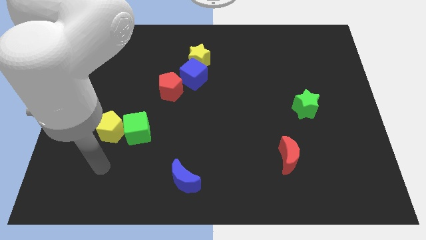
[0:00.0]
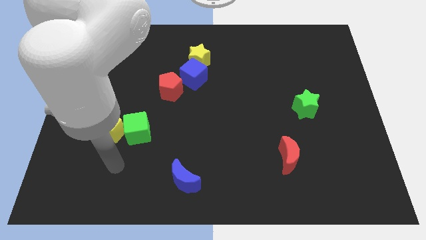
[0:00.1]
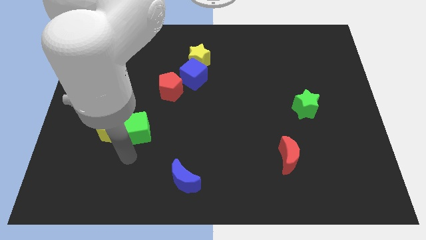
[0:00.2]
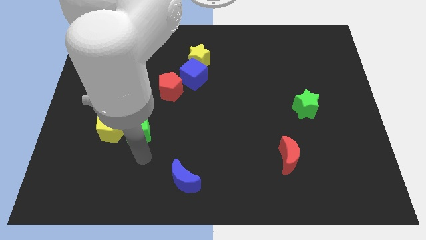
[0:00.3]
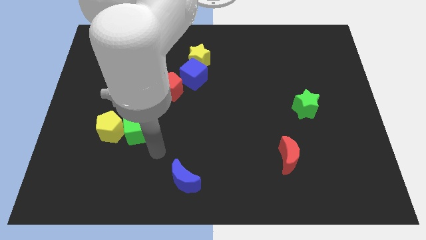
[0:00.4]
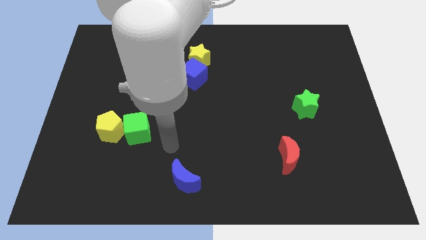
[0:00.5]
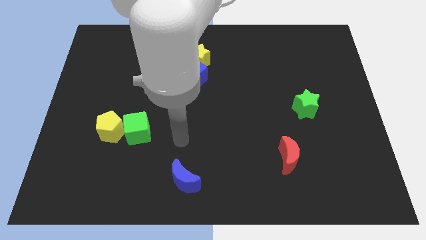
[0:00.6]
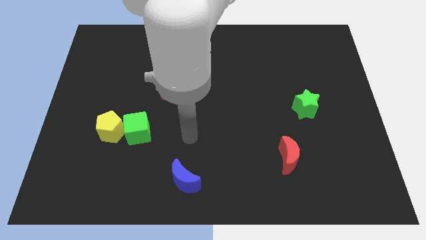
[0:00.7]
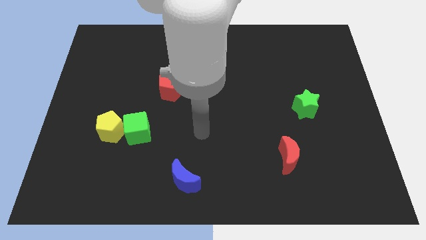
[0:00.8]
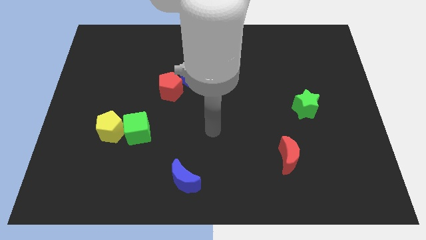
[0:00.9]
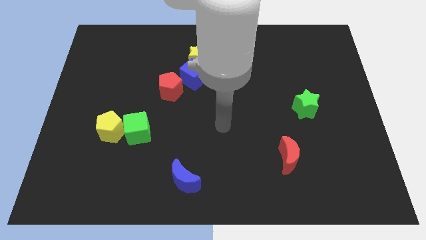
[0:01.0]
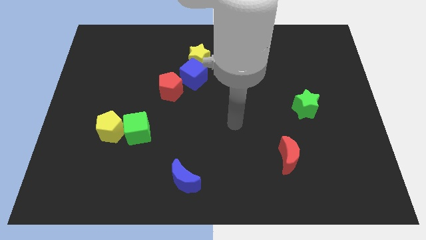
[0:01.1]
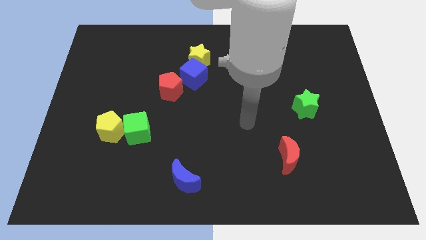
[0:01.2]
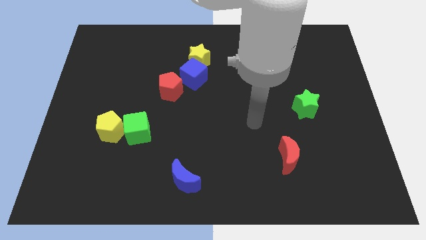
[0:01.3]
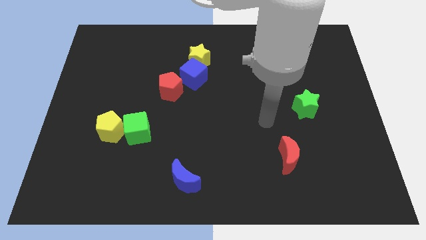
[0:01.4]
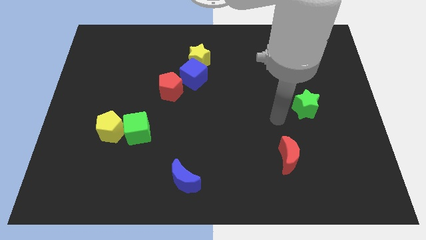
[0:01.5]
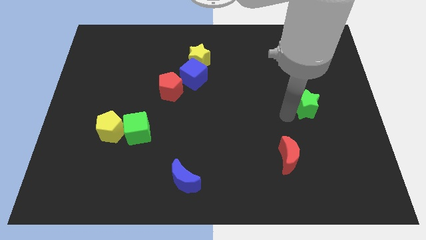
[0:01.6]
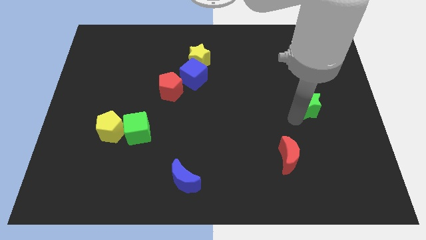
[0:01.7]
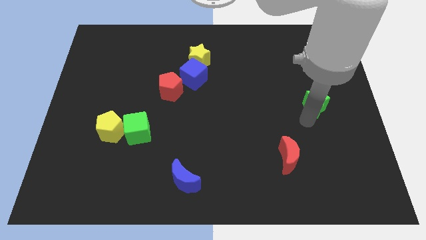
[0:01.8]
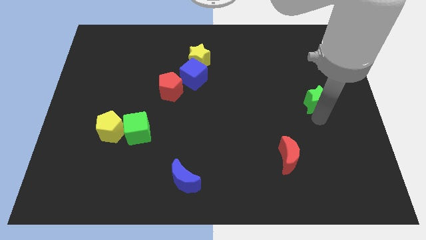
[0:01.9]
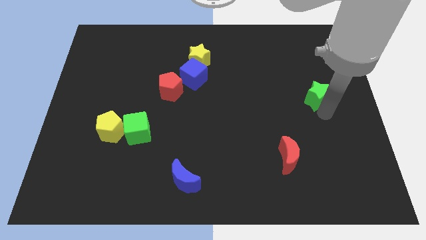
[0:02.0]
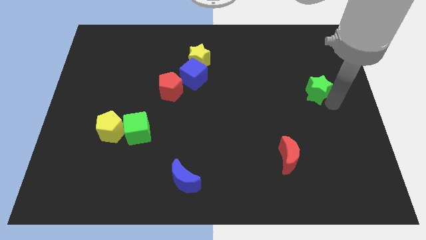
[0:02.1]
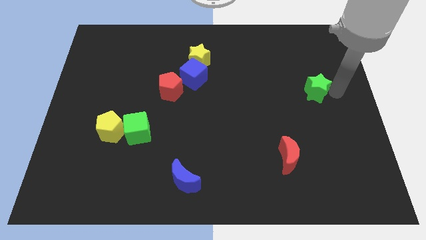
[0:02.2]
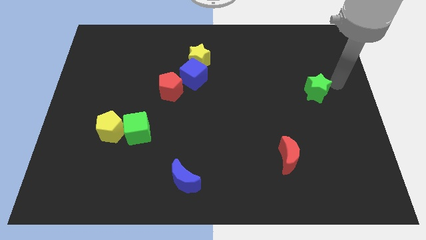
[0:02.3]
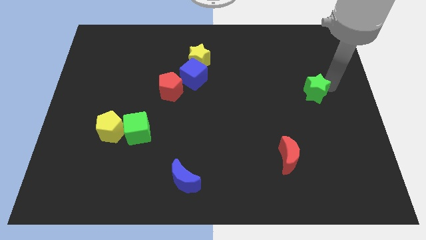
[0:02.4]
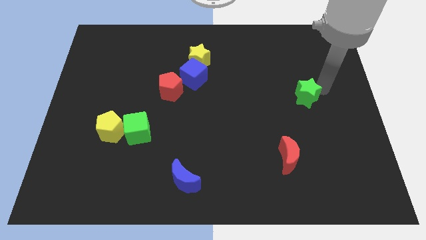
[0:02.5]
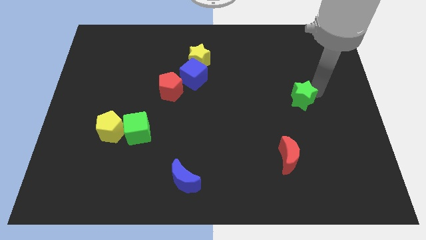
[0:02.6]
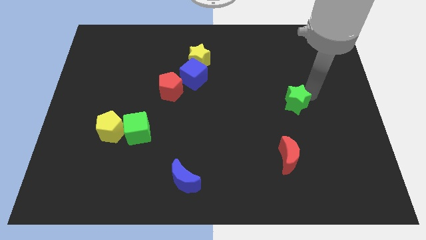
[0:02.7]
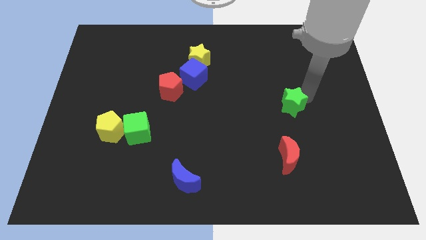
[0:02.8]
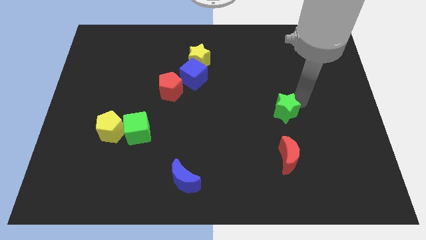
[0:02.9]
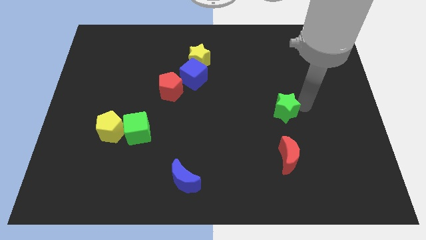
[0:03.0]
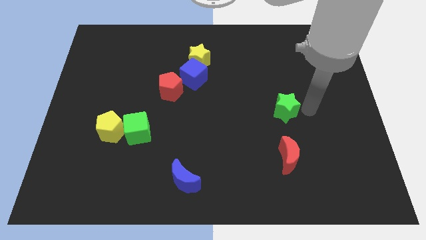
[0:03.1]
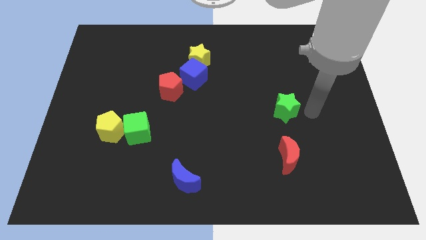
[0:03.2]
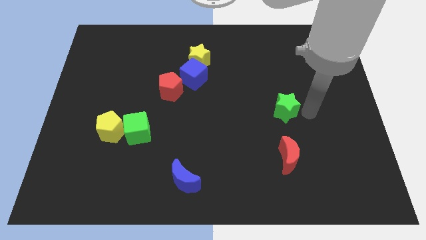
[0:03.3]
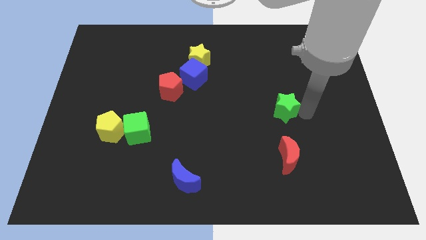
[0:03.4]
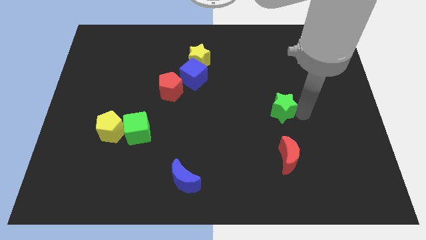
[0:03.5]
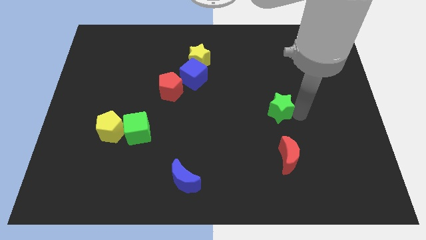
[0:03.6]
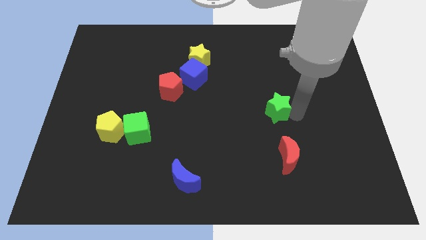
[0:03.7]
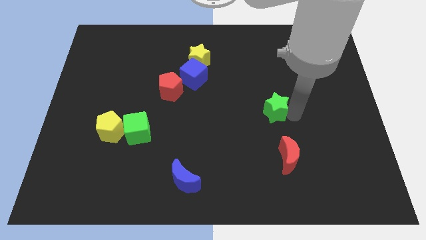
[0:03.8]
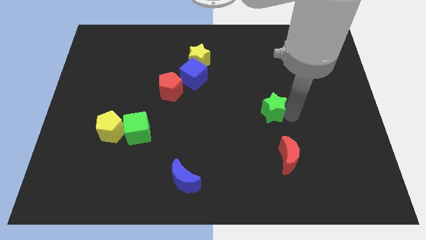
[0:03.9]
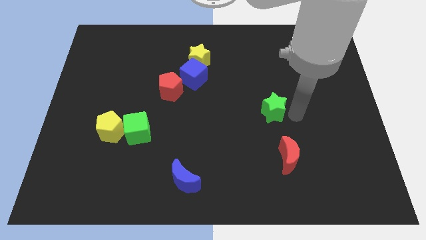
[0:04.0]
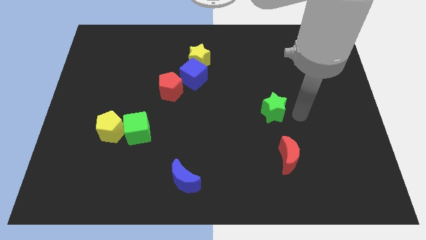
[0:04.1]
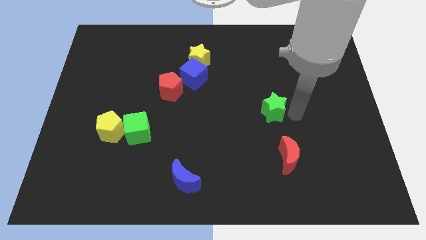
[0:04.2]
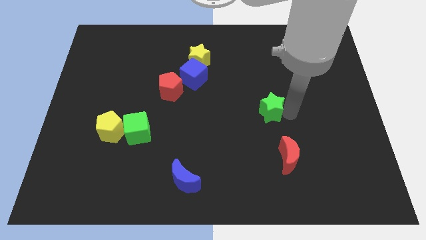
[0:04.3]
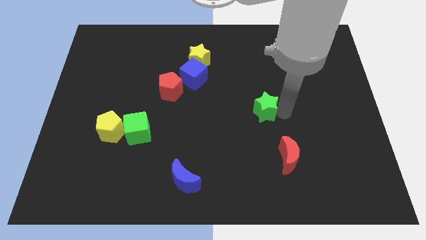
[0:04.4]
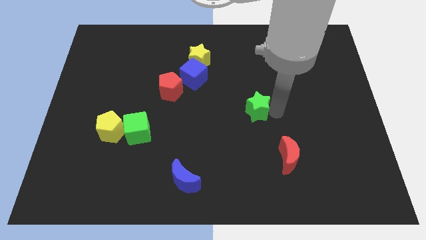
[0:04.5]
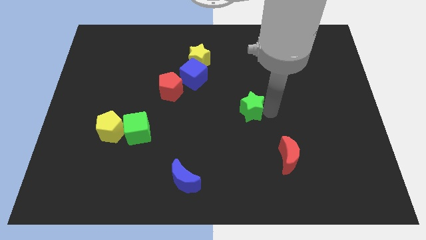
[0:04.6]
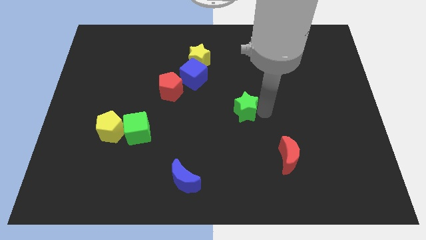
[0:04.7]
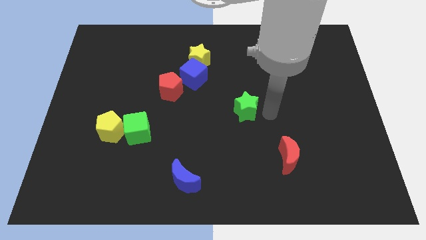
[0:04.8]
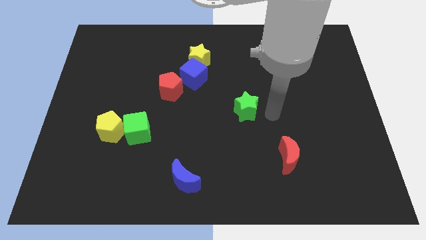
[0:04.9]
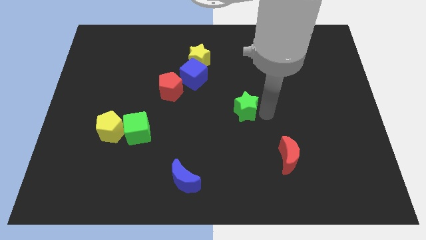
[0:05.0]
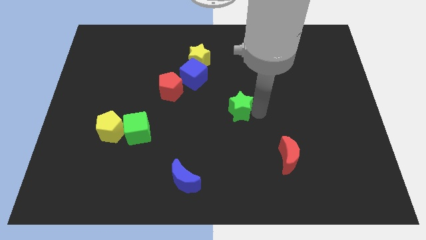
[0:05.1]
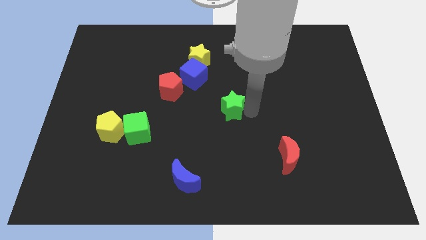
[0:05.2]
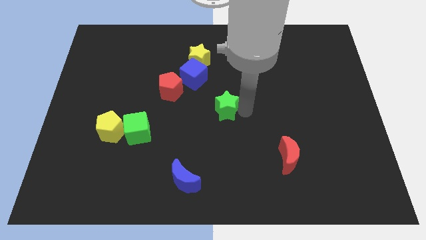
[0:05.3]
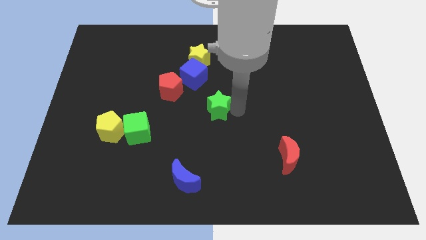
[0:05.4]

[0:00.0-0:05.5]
move the green star to the left

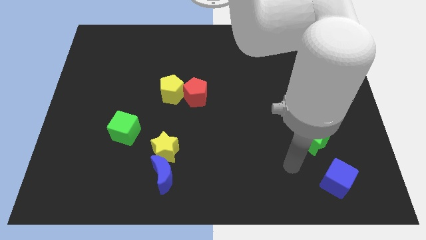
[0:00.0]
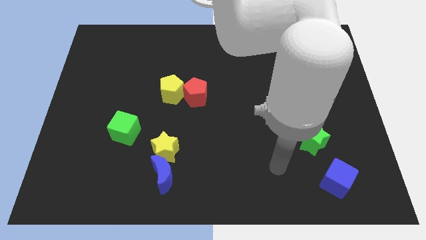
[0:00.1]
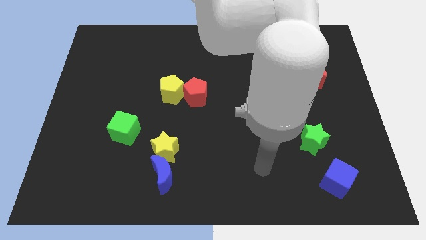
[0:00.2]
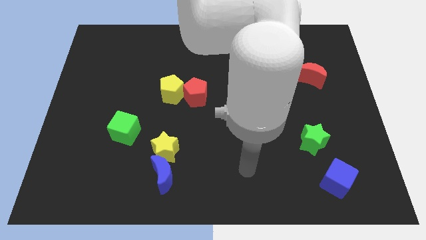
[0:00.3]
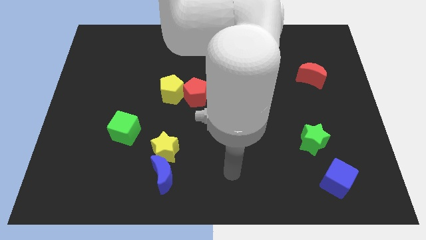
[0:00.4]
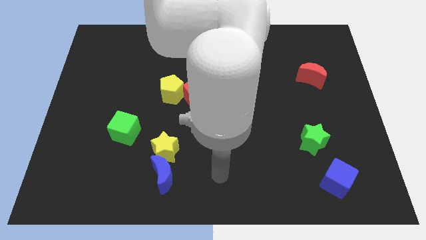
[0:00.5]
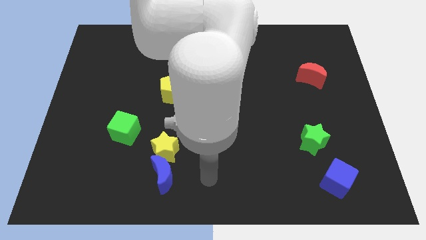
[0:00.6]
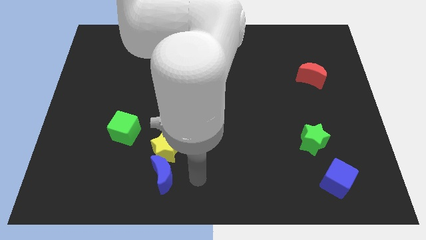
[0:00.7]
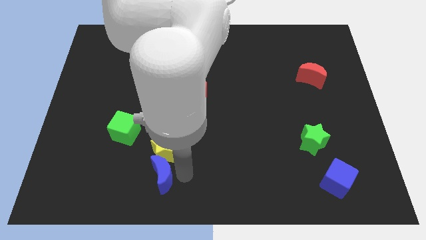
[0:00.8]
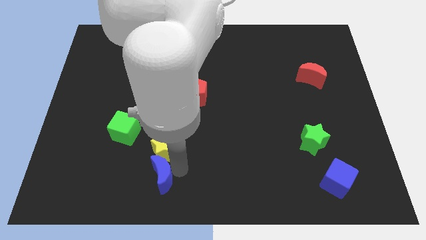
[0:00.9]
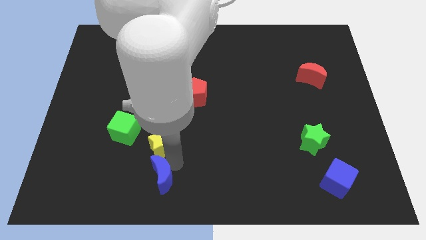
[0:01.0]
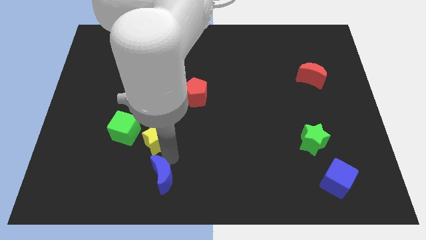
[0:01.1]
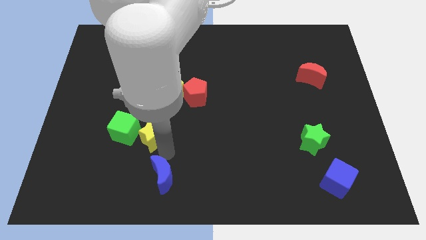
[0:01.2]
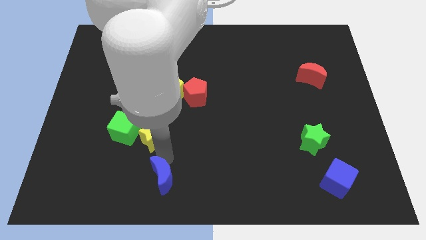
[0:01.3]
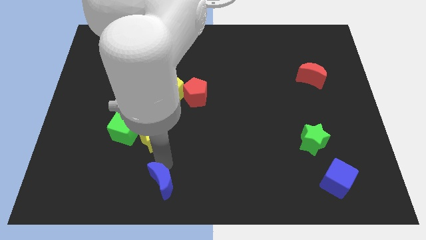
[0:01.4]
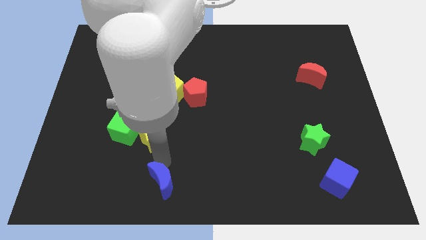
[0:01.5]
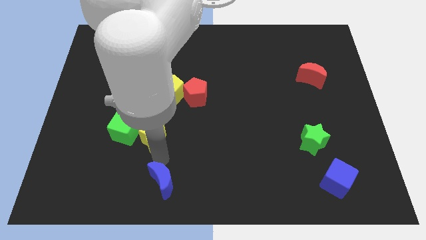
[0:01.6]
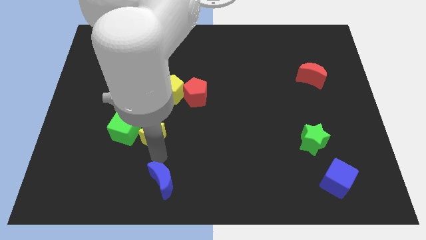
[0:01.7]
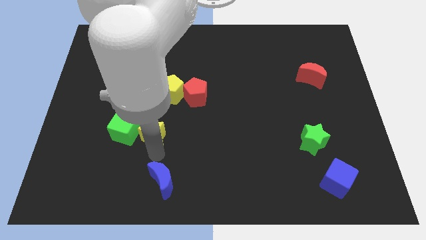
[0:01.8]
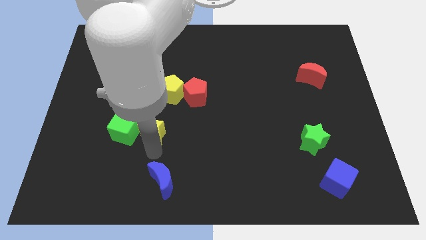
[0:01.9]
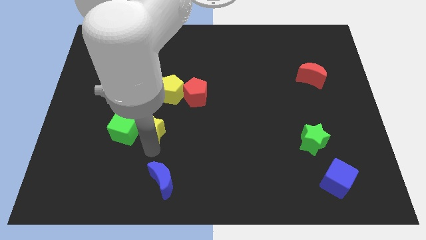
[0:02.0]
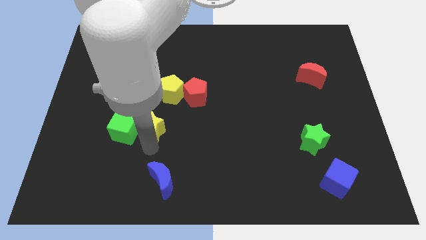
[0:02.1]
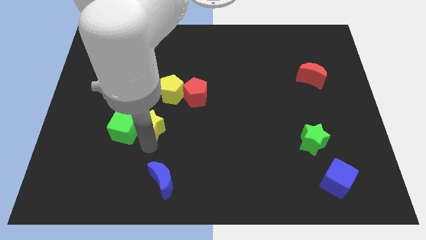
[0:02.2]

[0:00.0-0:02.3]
slightly slide the yellow star upwards and to the left

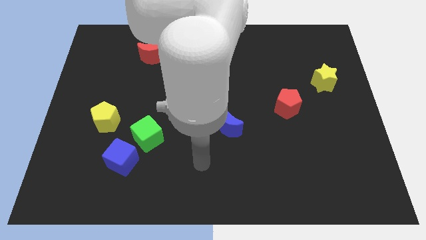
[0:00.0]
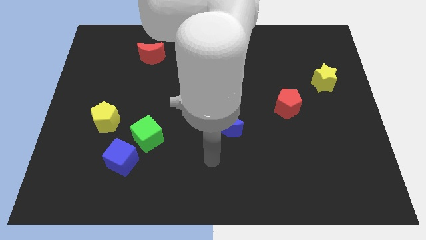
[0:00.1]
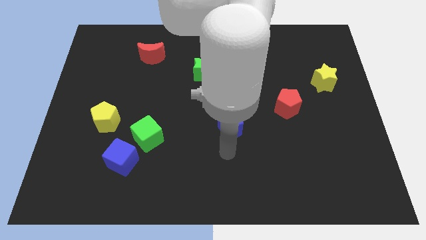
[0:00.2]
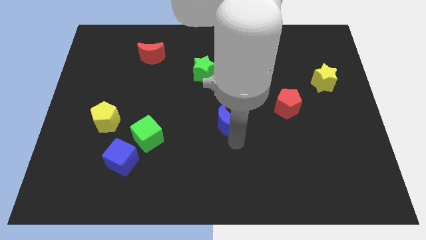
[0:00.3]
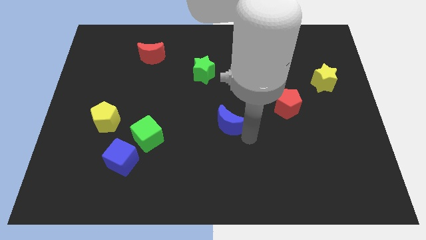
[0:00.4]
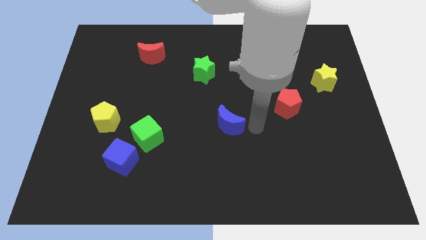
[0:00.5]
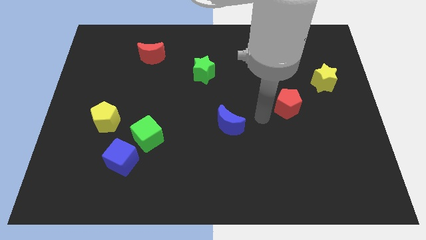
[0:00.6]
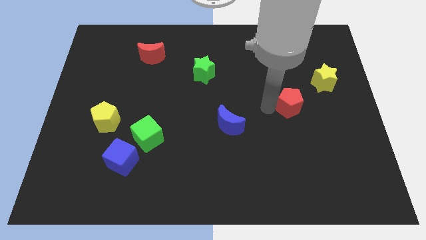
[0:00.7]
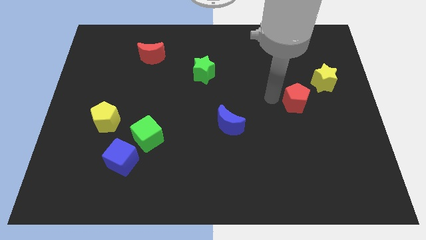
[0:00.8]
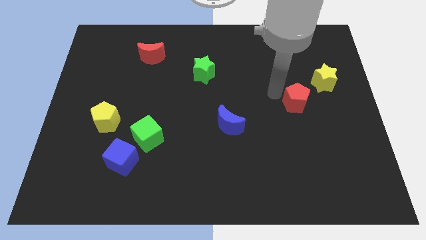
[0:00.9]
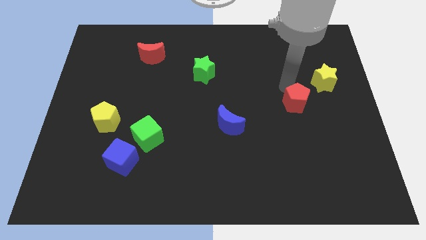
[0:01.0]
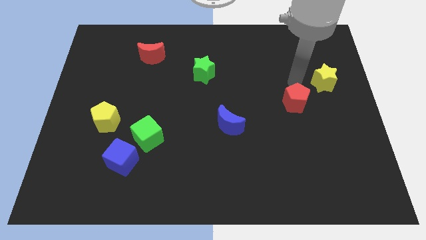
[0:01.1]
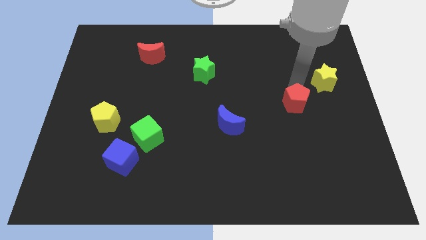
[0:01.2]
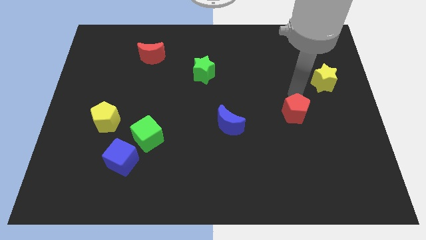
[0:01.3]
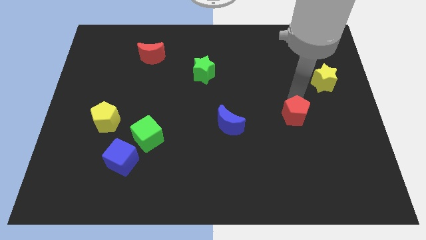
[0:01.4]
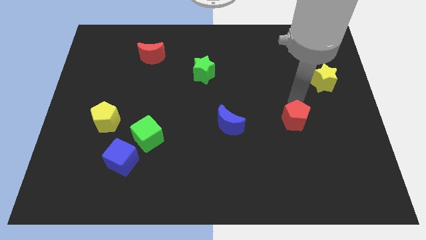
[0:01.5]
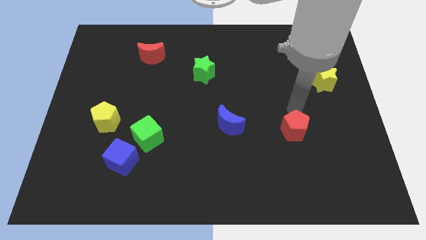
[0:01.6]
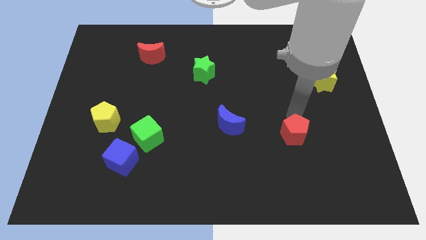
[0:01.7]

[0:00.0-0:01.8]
push the red pentagon somewhat down
